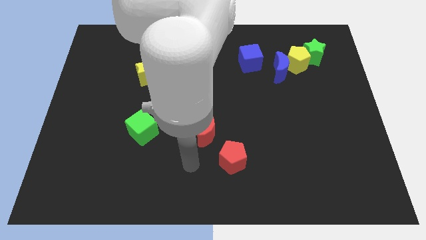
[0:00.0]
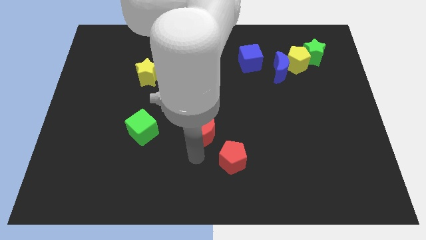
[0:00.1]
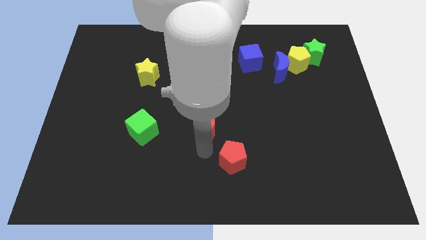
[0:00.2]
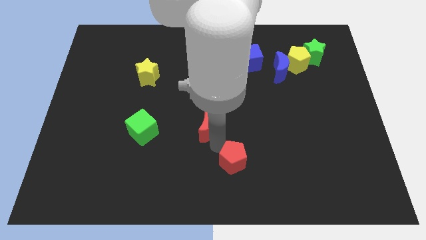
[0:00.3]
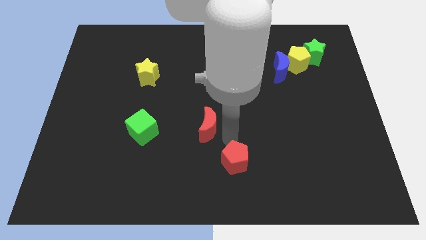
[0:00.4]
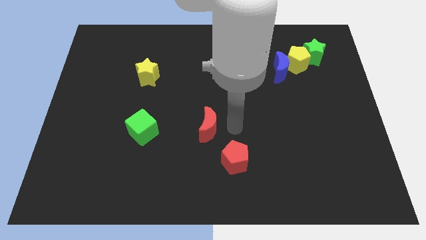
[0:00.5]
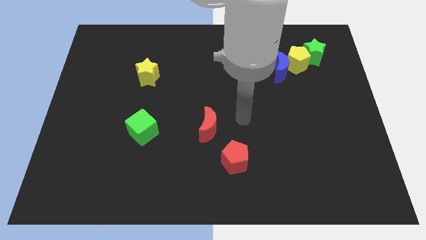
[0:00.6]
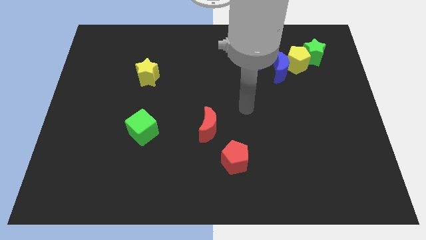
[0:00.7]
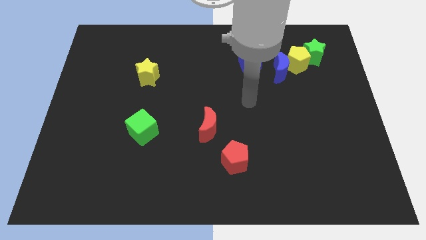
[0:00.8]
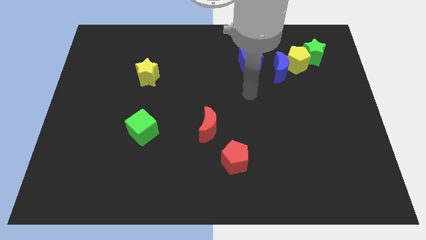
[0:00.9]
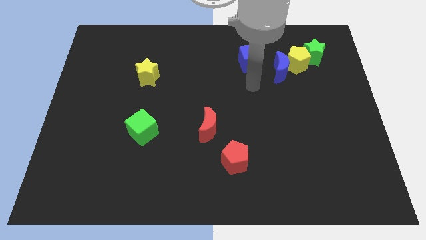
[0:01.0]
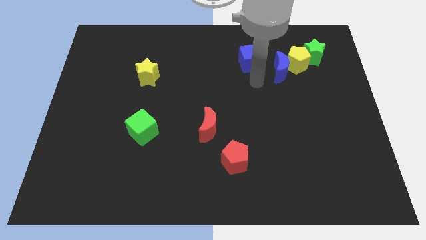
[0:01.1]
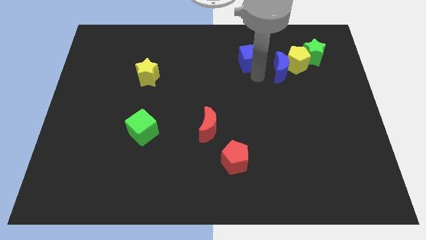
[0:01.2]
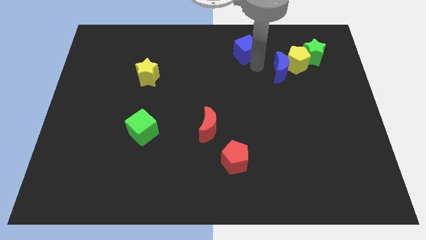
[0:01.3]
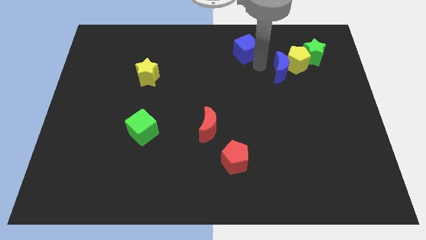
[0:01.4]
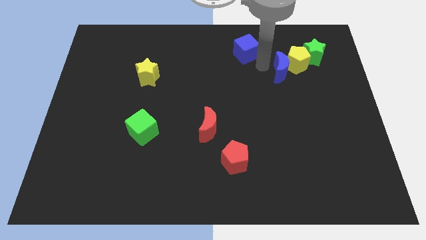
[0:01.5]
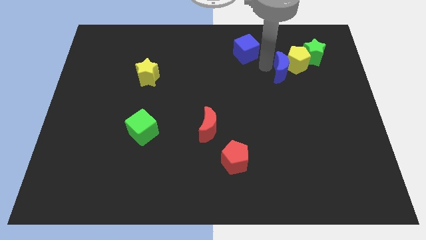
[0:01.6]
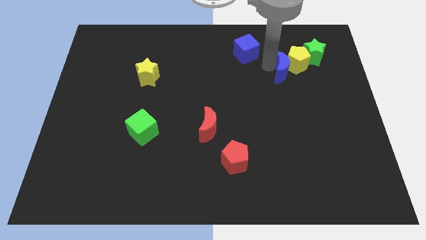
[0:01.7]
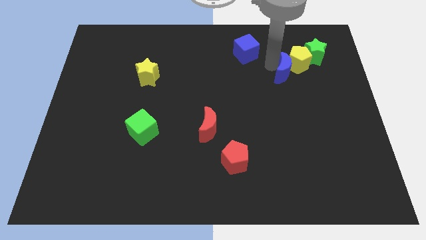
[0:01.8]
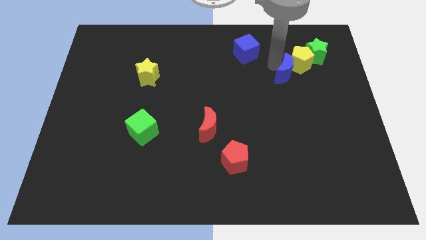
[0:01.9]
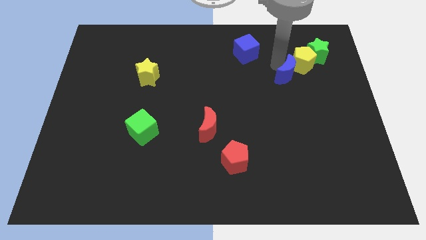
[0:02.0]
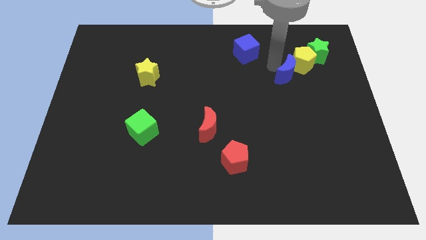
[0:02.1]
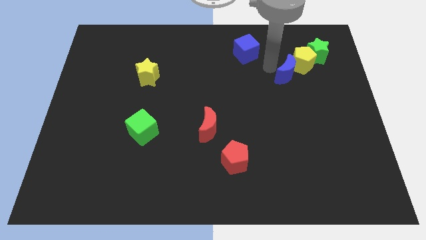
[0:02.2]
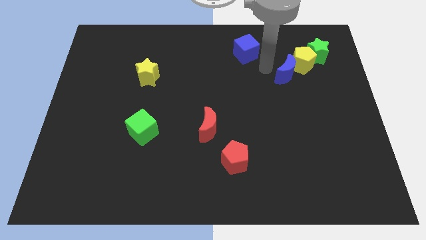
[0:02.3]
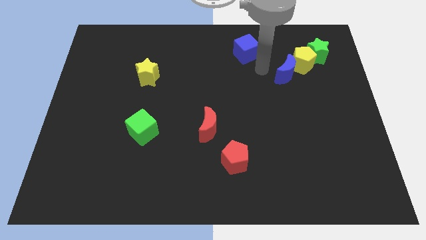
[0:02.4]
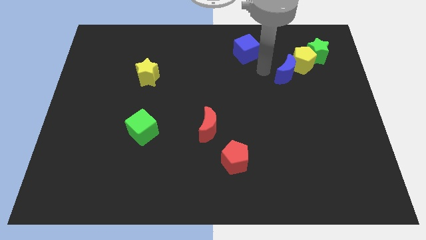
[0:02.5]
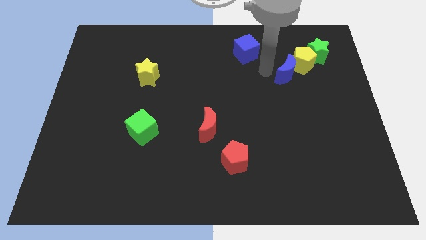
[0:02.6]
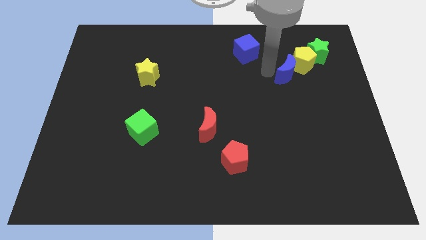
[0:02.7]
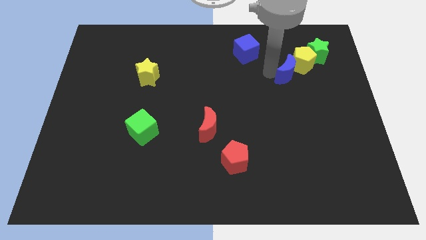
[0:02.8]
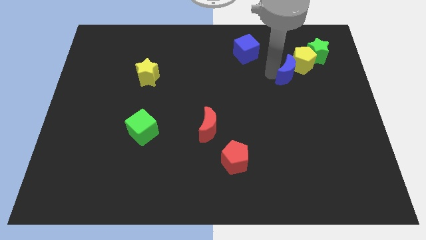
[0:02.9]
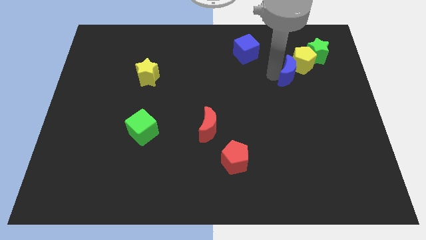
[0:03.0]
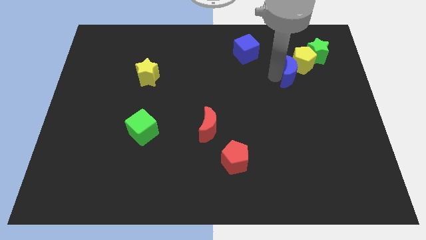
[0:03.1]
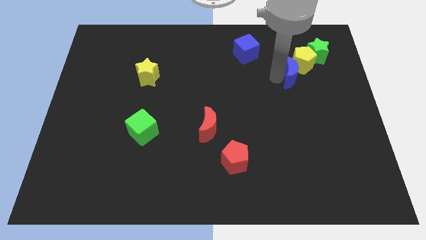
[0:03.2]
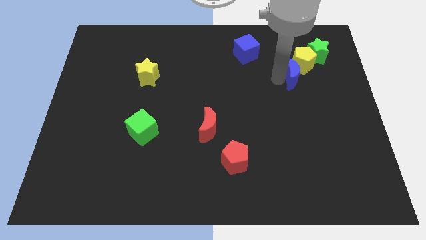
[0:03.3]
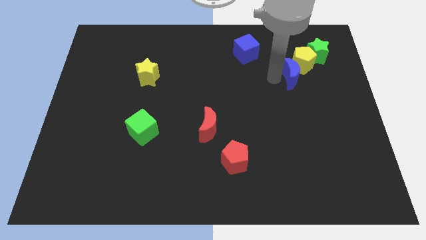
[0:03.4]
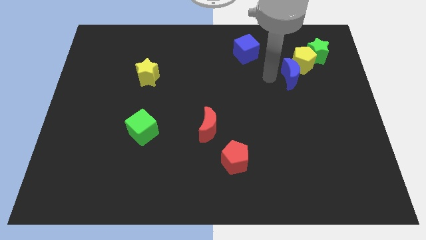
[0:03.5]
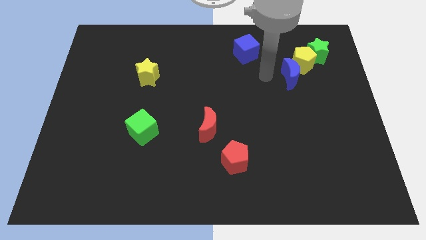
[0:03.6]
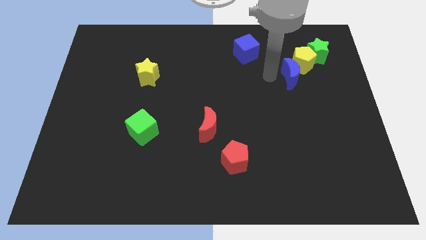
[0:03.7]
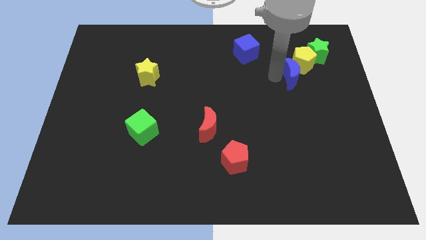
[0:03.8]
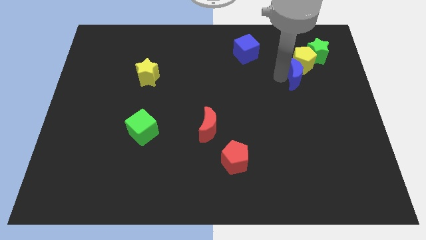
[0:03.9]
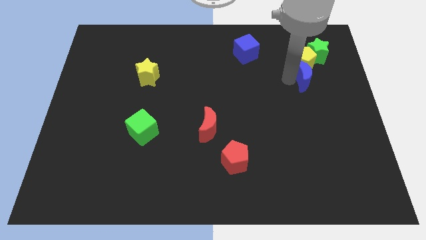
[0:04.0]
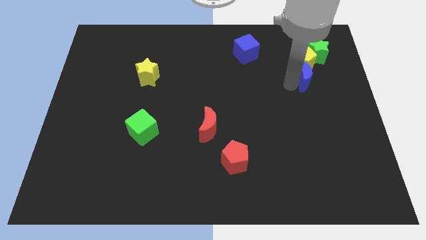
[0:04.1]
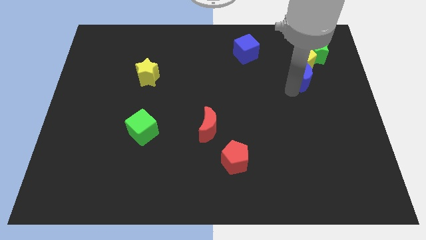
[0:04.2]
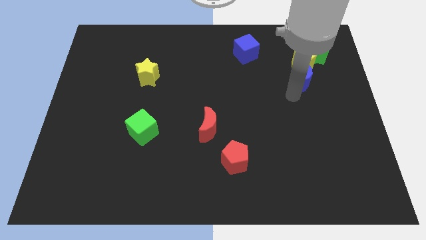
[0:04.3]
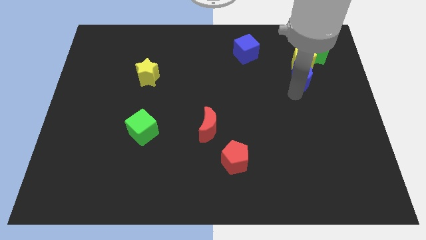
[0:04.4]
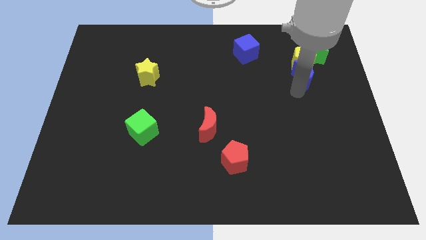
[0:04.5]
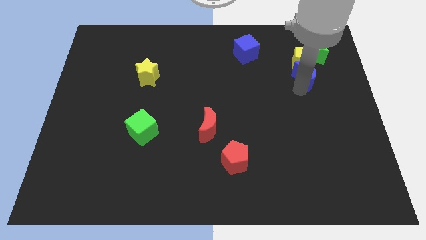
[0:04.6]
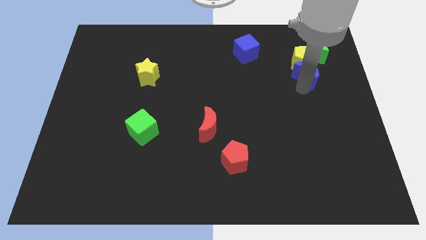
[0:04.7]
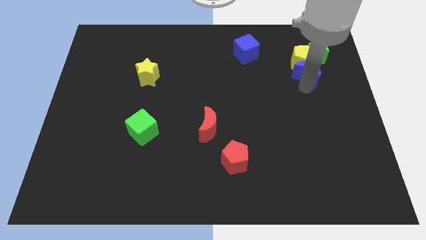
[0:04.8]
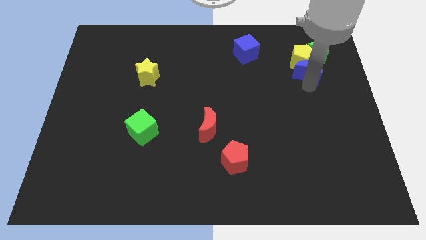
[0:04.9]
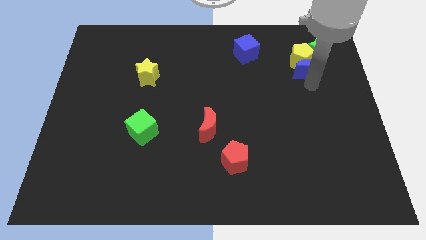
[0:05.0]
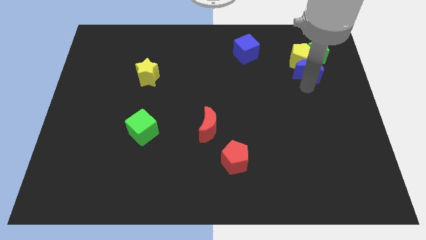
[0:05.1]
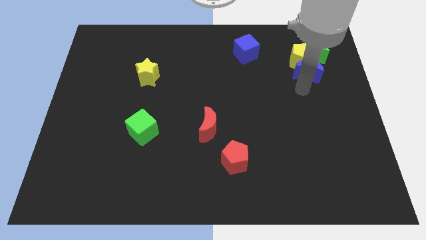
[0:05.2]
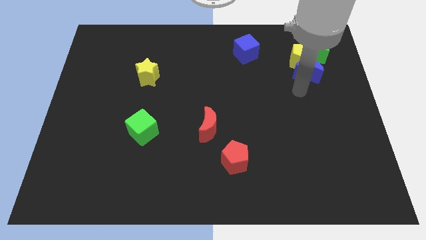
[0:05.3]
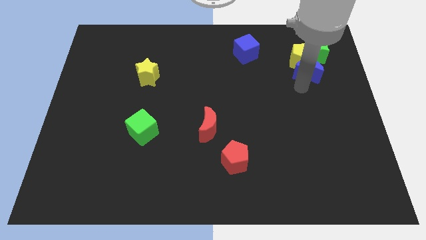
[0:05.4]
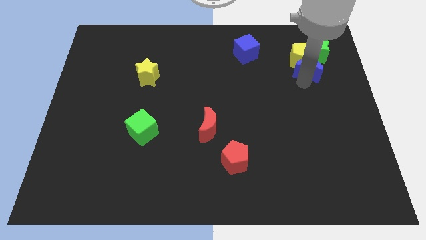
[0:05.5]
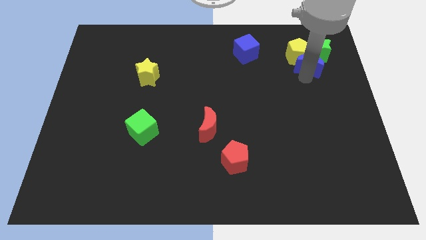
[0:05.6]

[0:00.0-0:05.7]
move the blue moon to the green star

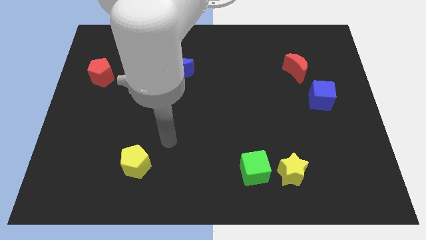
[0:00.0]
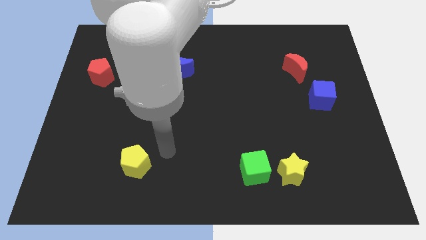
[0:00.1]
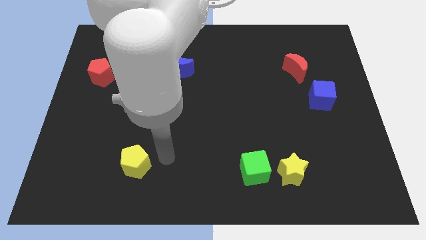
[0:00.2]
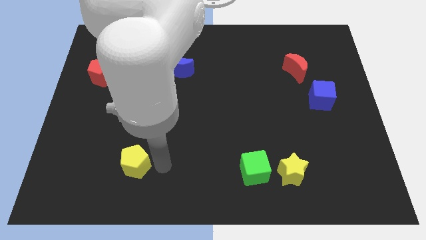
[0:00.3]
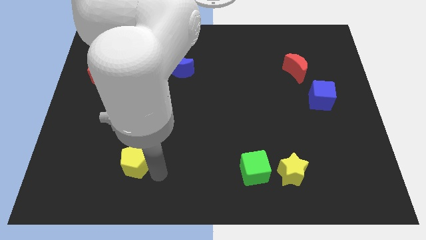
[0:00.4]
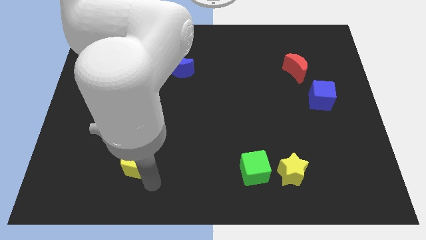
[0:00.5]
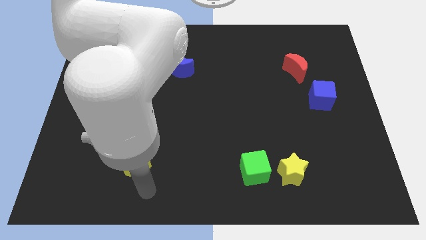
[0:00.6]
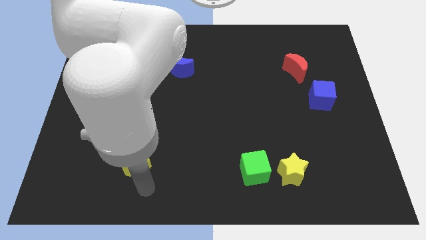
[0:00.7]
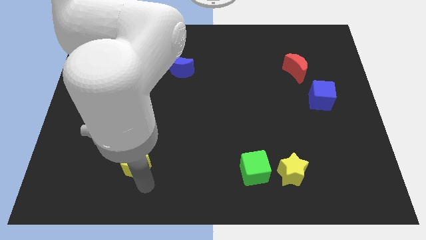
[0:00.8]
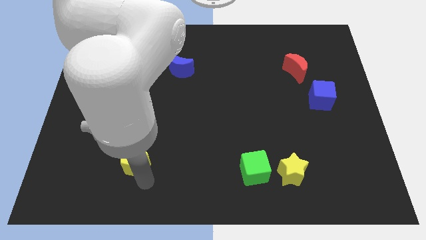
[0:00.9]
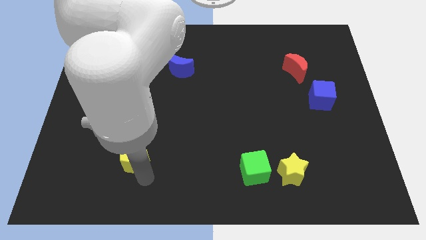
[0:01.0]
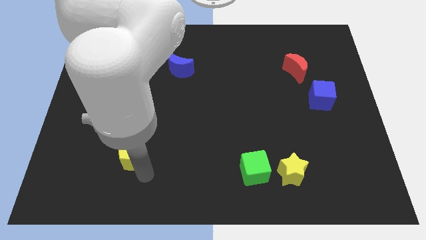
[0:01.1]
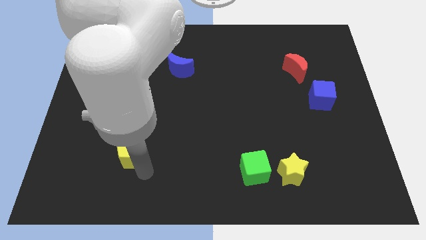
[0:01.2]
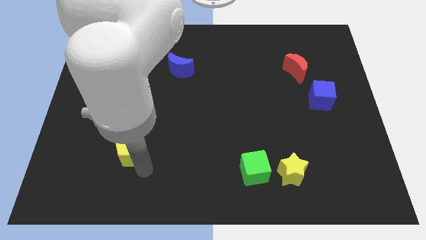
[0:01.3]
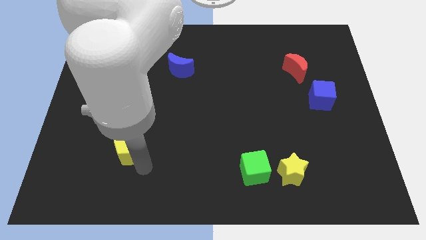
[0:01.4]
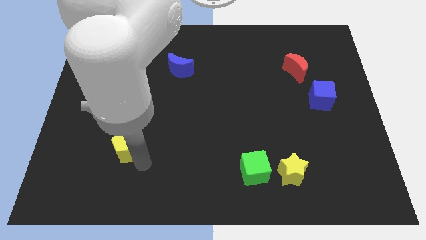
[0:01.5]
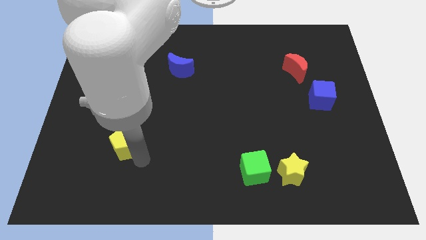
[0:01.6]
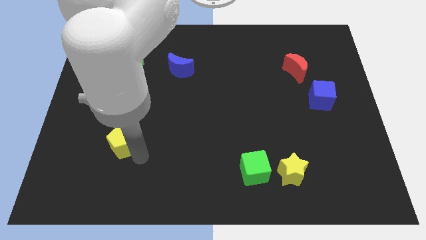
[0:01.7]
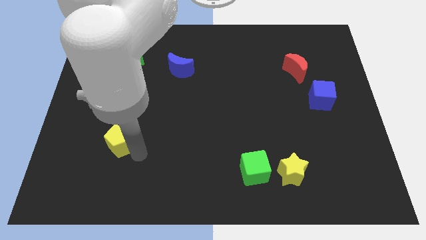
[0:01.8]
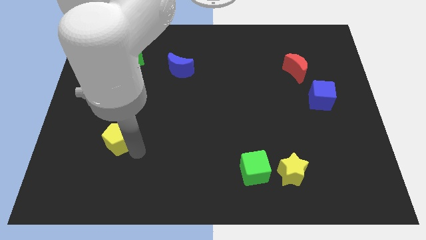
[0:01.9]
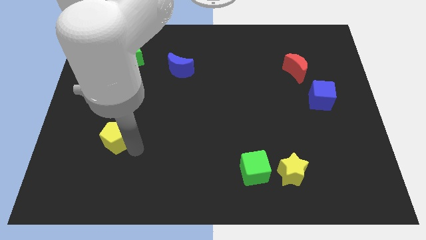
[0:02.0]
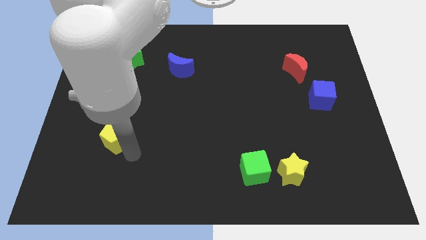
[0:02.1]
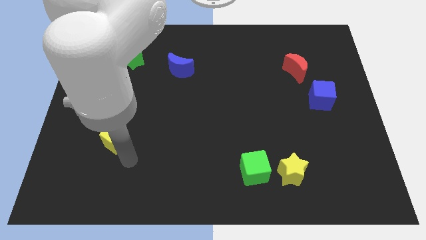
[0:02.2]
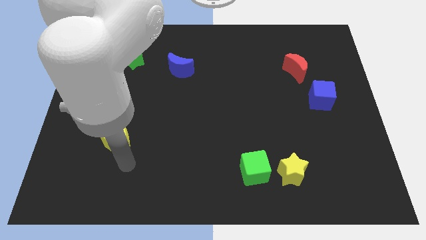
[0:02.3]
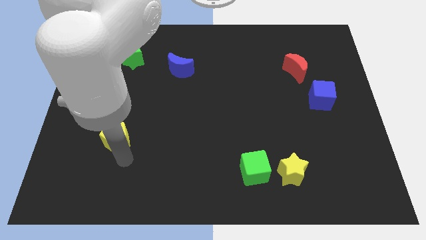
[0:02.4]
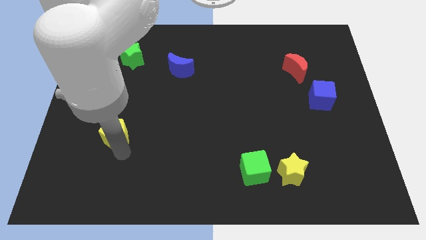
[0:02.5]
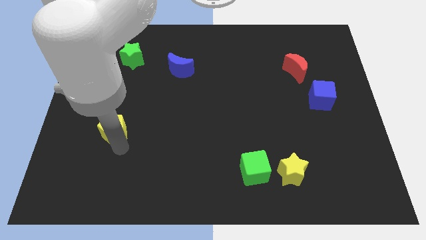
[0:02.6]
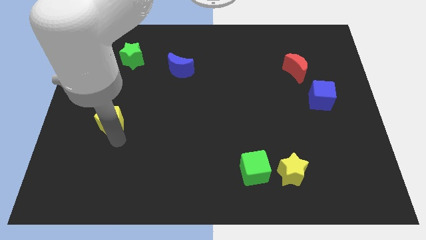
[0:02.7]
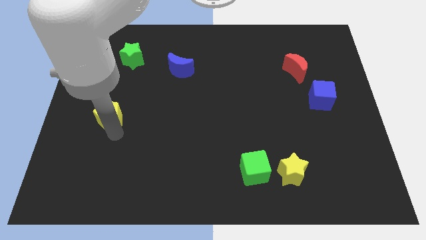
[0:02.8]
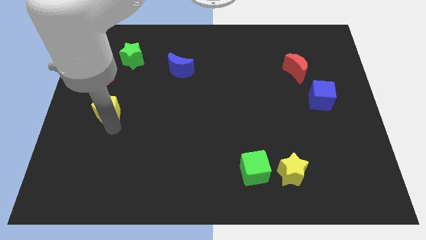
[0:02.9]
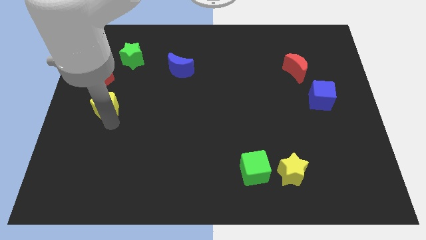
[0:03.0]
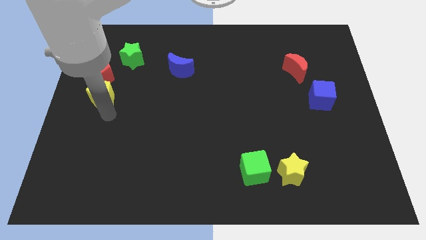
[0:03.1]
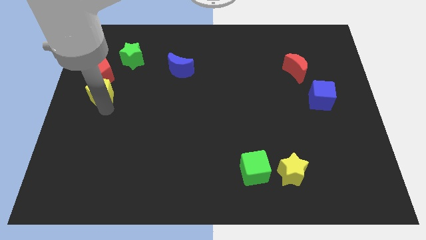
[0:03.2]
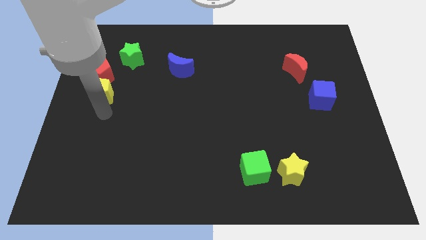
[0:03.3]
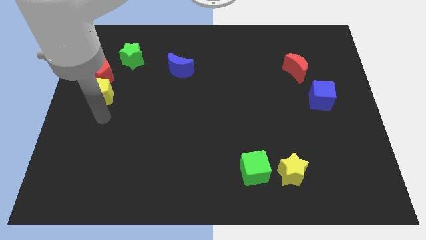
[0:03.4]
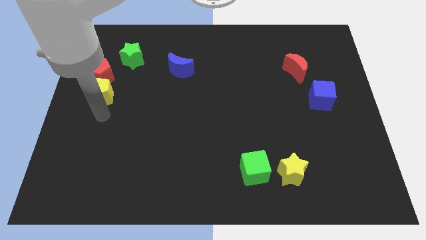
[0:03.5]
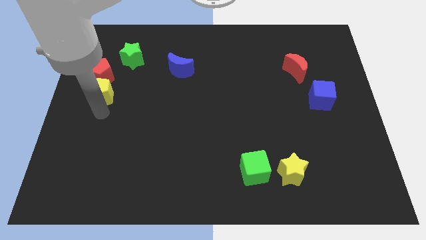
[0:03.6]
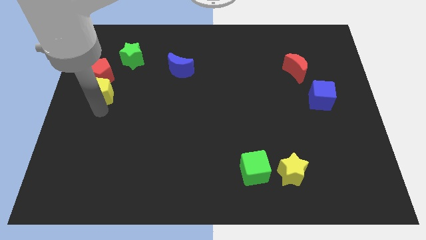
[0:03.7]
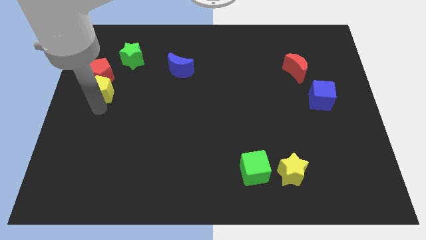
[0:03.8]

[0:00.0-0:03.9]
move the yellow pentagon towards the red pentagon
